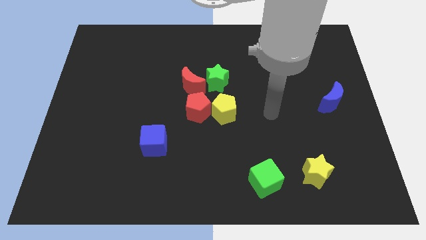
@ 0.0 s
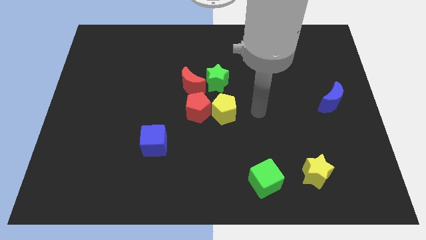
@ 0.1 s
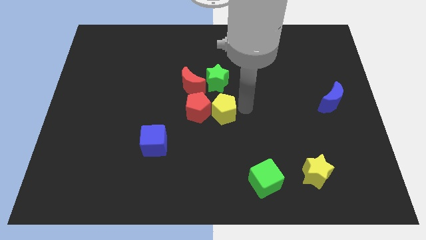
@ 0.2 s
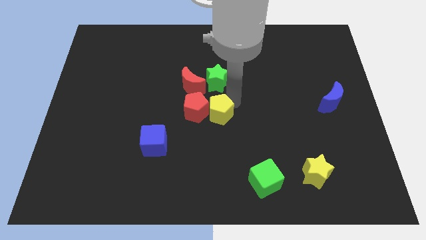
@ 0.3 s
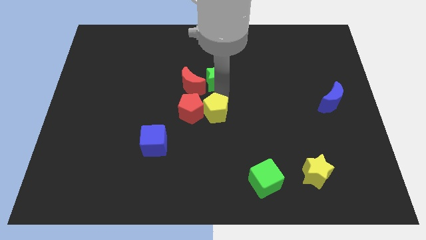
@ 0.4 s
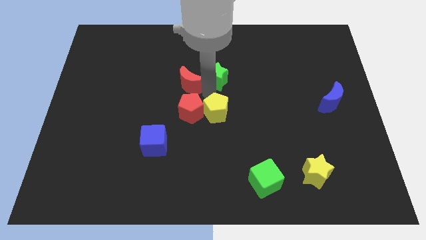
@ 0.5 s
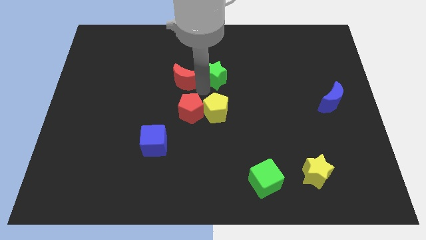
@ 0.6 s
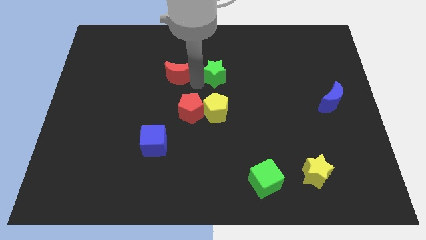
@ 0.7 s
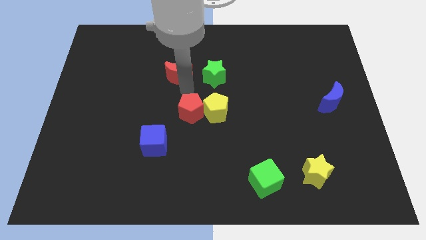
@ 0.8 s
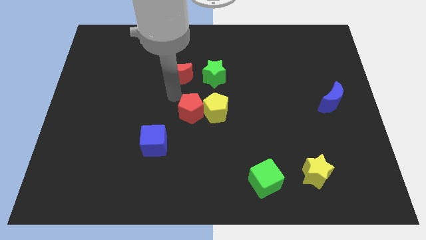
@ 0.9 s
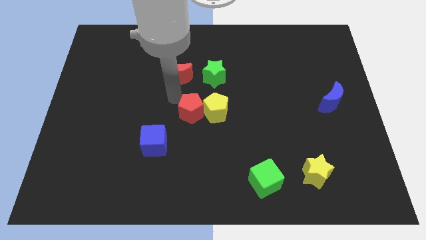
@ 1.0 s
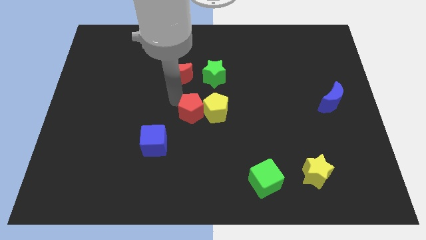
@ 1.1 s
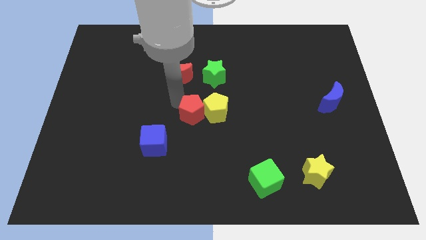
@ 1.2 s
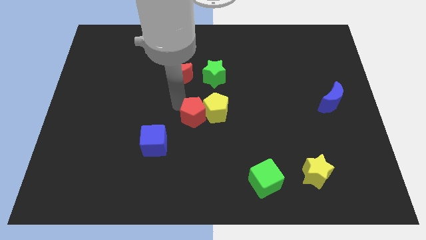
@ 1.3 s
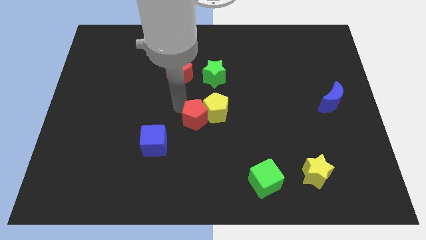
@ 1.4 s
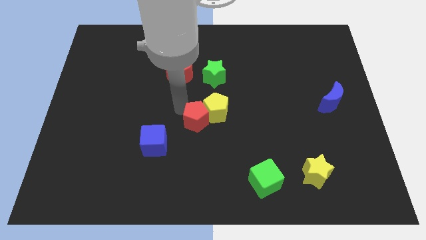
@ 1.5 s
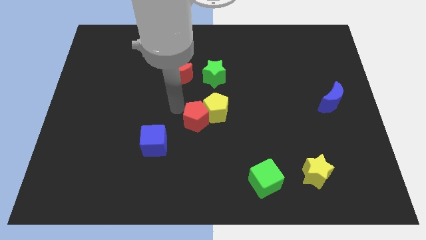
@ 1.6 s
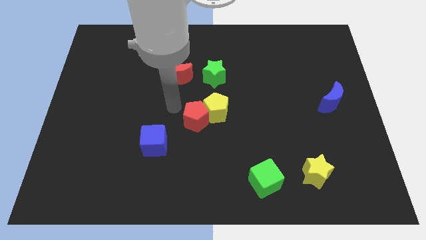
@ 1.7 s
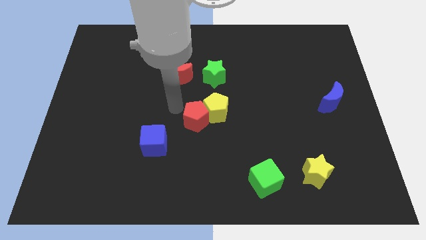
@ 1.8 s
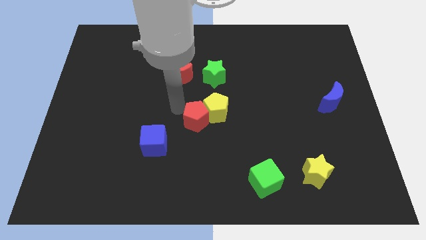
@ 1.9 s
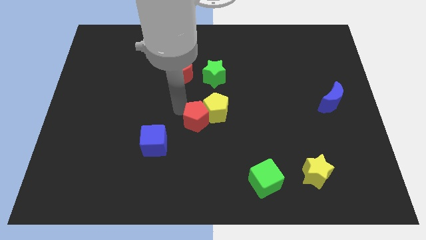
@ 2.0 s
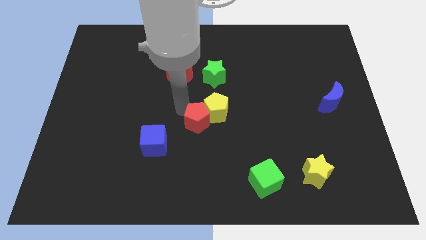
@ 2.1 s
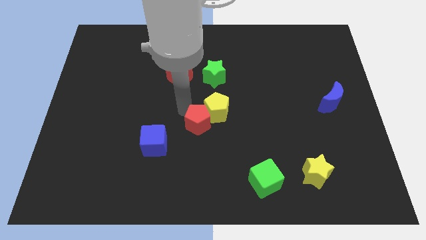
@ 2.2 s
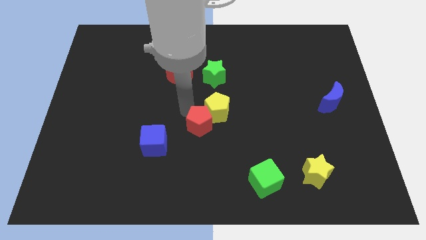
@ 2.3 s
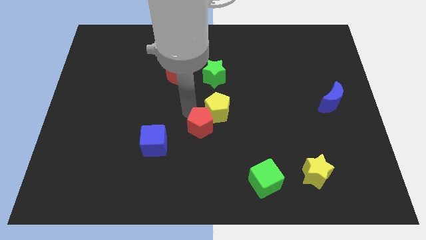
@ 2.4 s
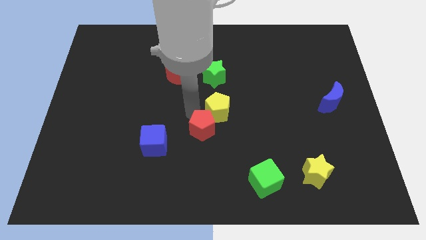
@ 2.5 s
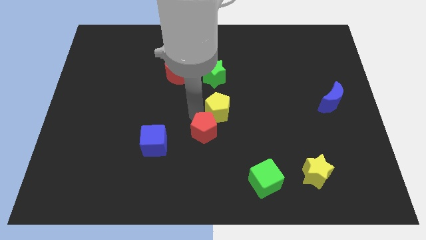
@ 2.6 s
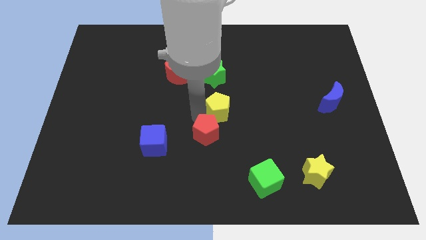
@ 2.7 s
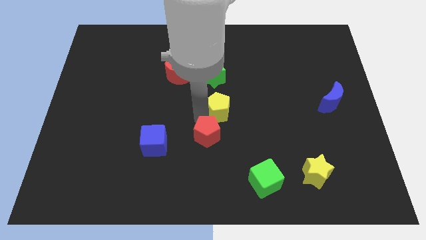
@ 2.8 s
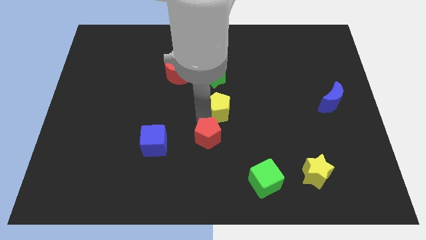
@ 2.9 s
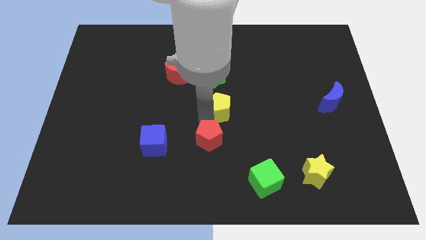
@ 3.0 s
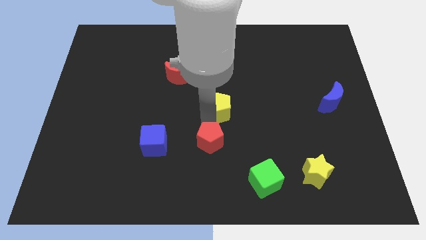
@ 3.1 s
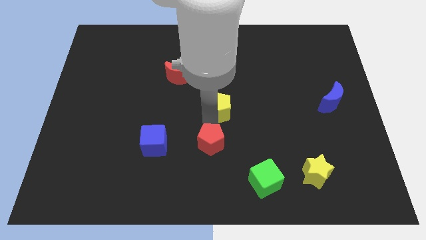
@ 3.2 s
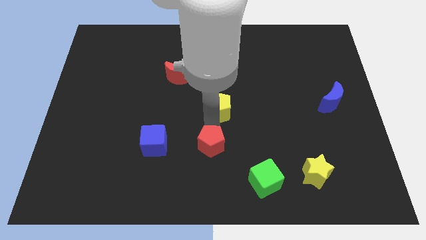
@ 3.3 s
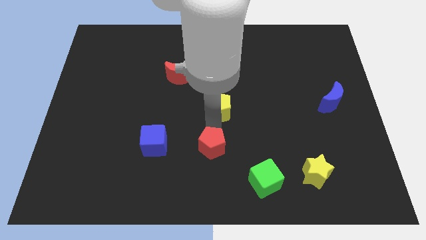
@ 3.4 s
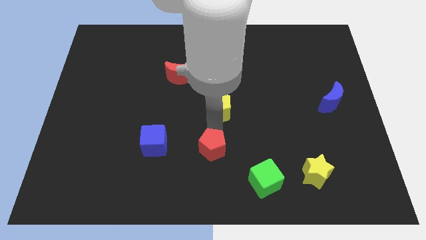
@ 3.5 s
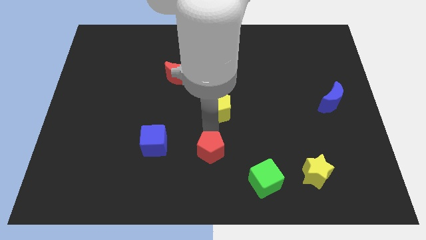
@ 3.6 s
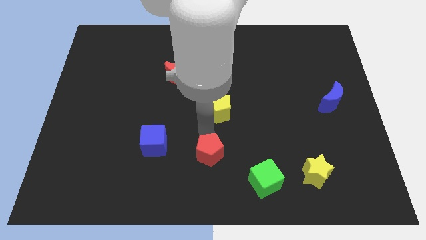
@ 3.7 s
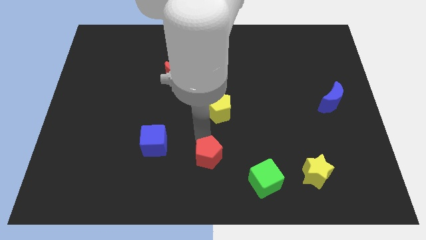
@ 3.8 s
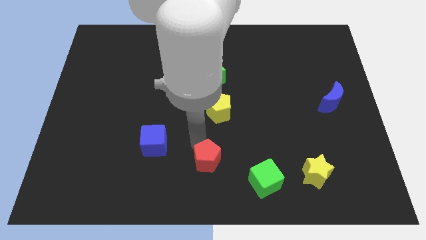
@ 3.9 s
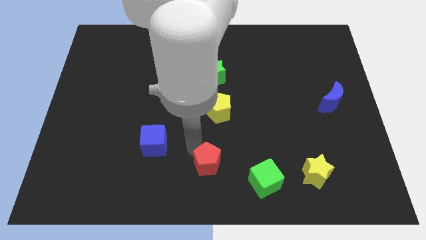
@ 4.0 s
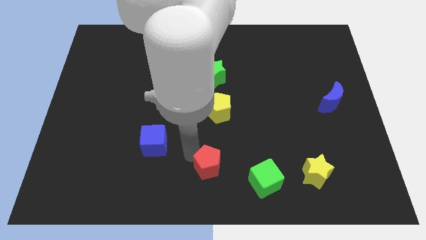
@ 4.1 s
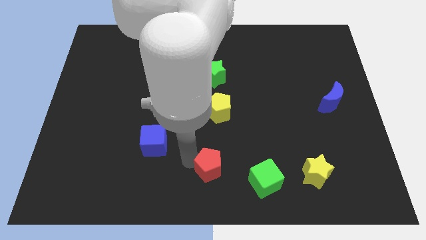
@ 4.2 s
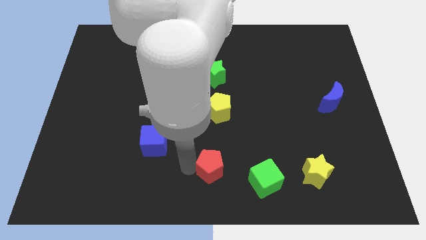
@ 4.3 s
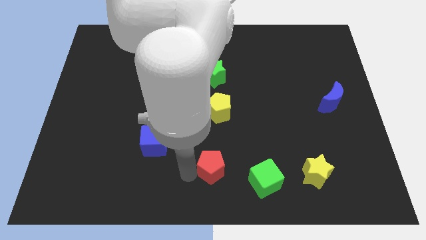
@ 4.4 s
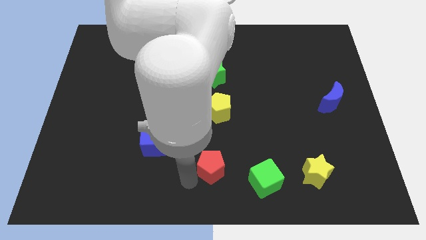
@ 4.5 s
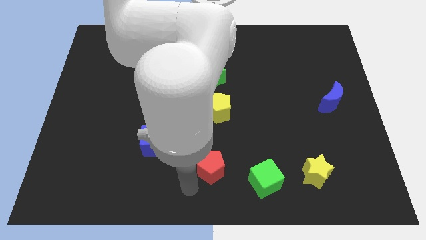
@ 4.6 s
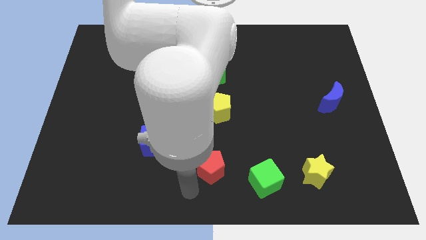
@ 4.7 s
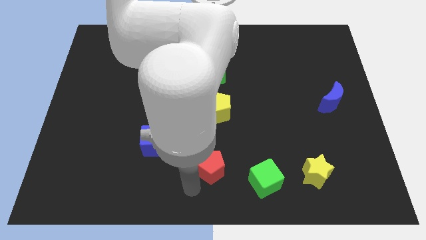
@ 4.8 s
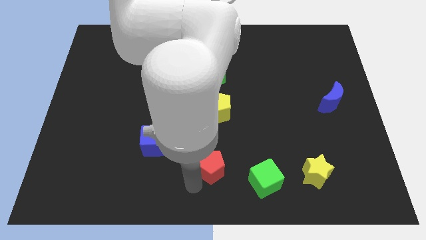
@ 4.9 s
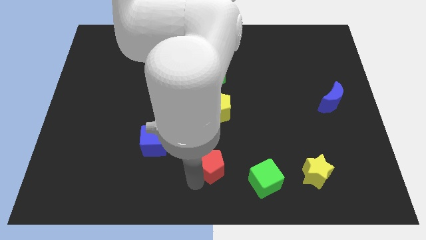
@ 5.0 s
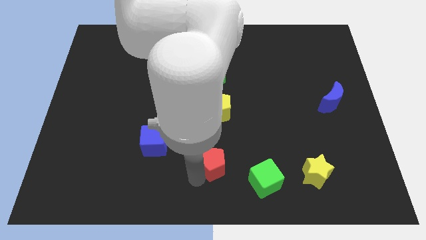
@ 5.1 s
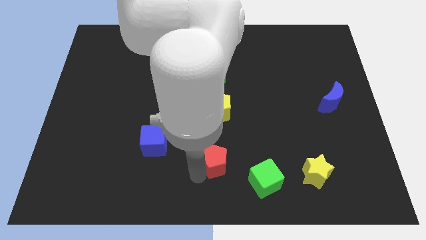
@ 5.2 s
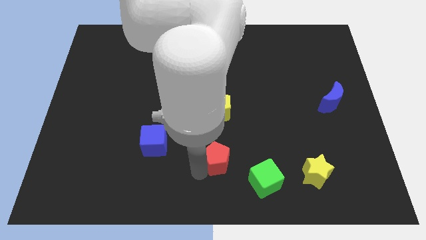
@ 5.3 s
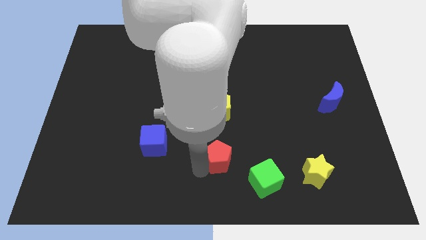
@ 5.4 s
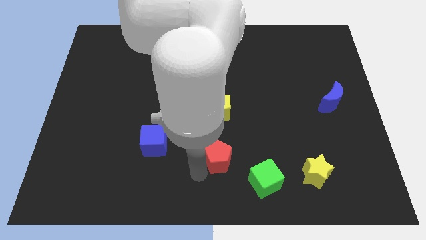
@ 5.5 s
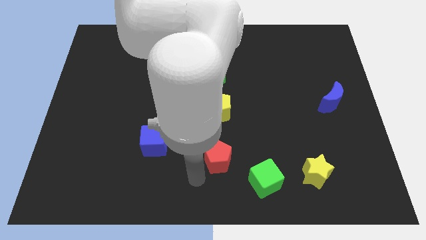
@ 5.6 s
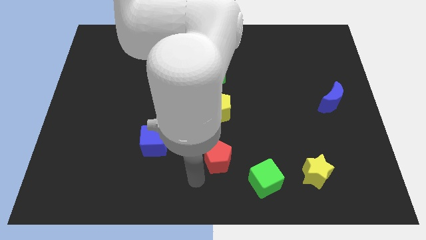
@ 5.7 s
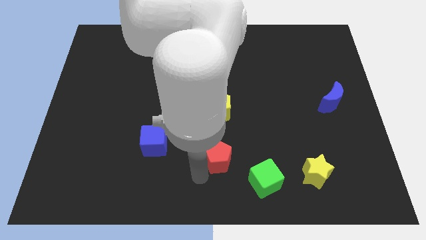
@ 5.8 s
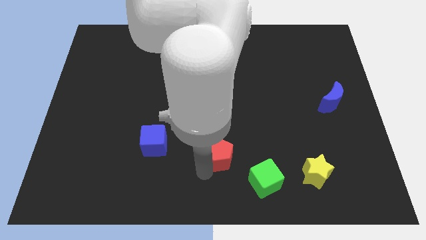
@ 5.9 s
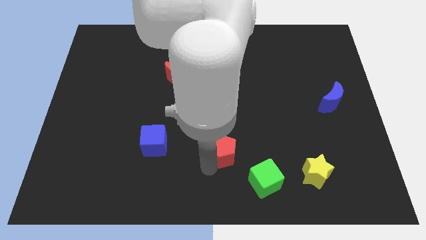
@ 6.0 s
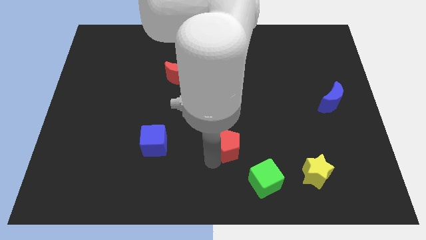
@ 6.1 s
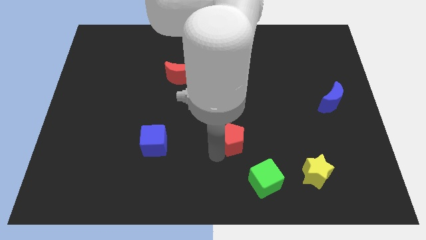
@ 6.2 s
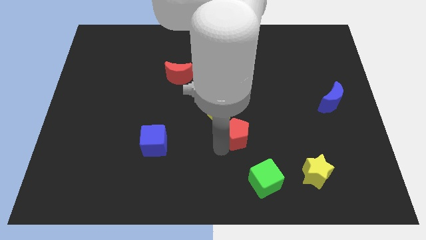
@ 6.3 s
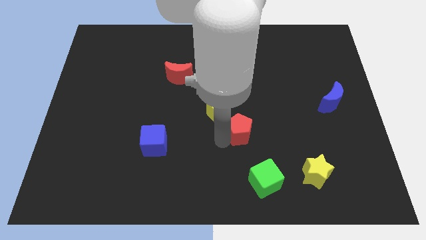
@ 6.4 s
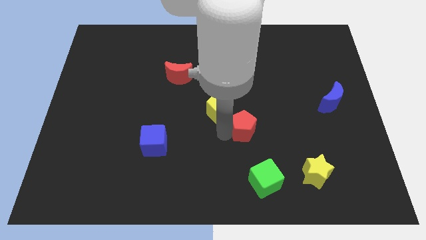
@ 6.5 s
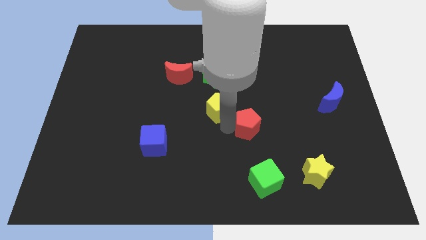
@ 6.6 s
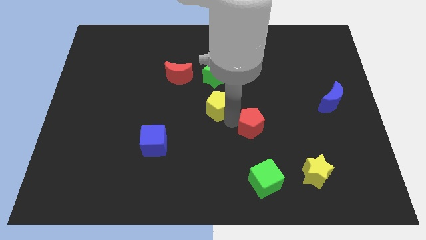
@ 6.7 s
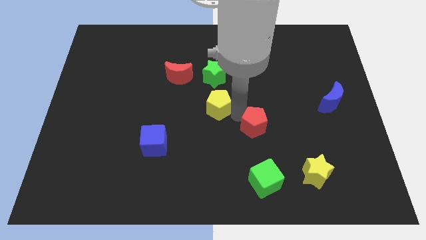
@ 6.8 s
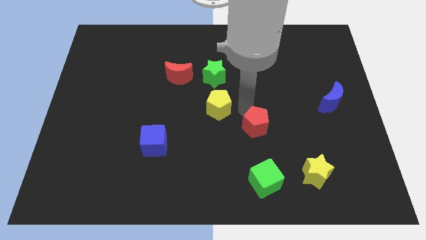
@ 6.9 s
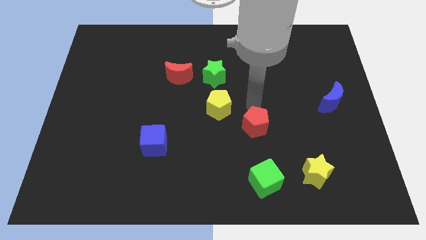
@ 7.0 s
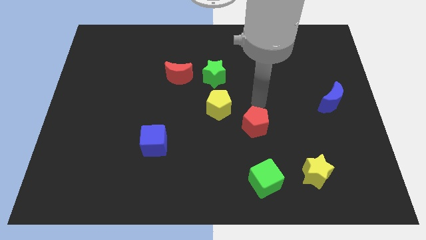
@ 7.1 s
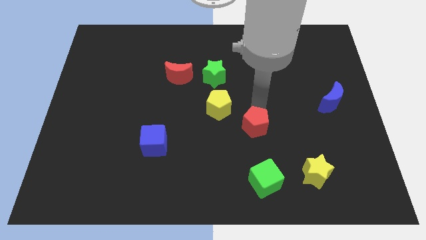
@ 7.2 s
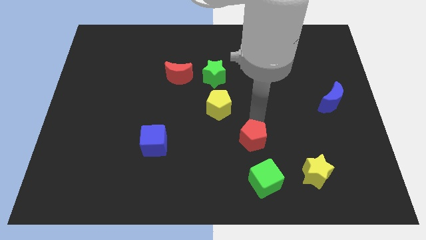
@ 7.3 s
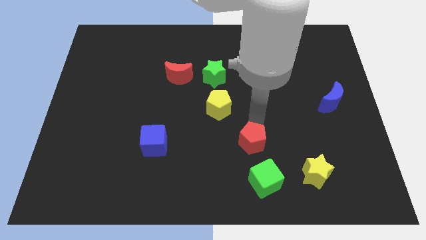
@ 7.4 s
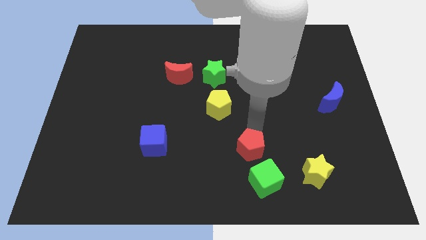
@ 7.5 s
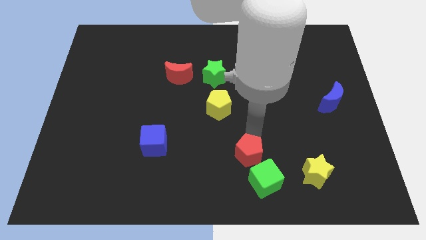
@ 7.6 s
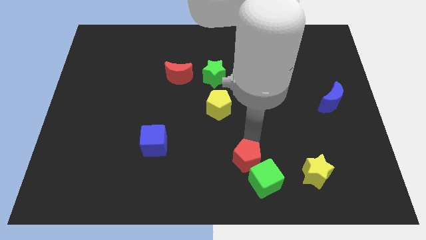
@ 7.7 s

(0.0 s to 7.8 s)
put the red pentagon next to the green cube
